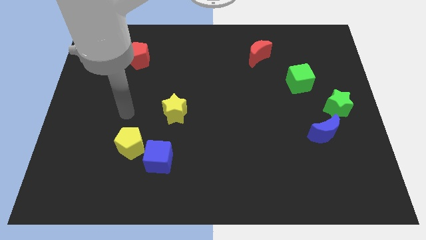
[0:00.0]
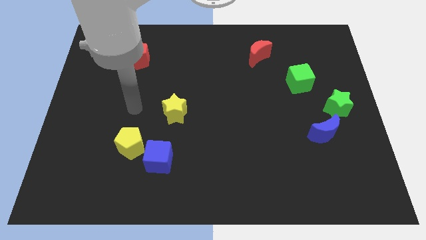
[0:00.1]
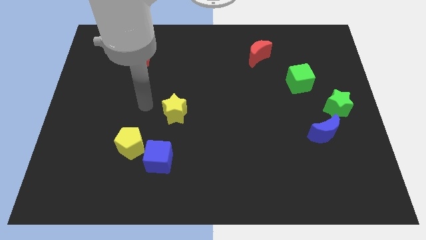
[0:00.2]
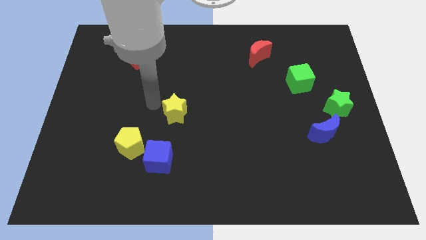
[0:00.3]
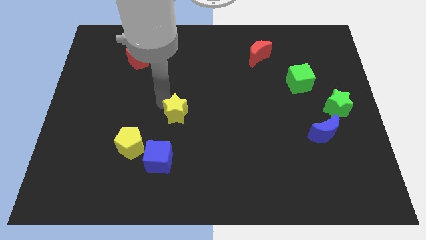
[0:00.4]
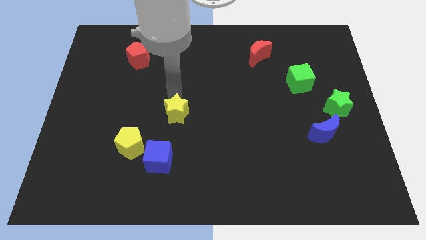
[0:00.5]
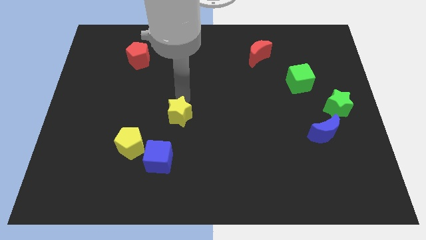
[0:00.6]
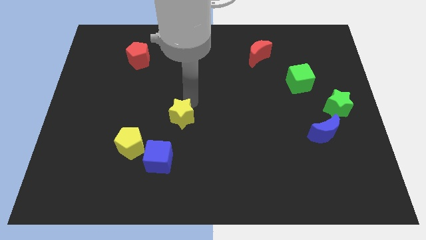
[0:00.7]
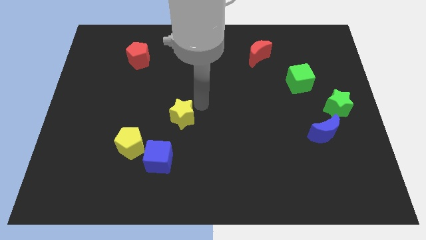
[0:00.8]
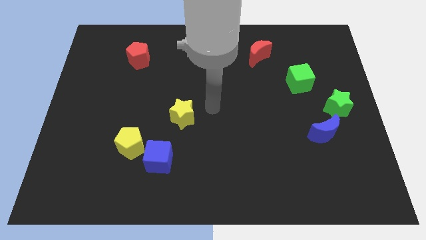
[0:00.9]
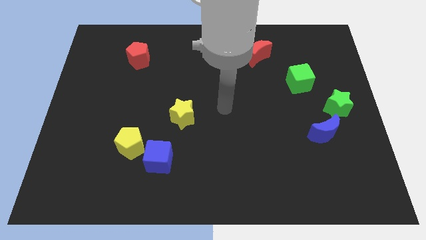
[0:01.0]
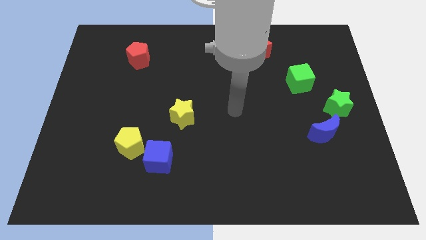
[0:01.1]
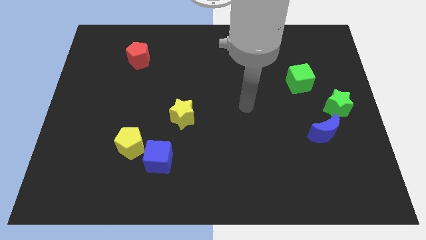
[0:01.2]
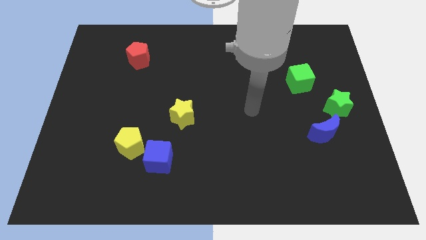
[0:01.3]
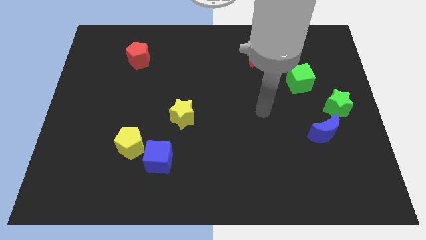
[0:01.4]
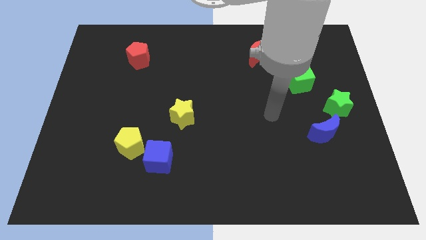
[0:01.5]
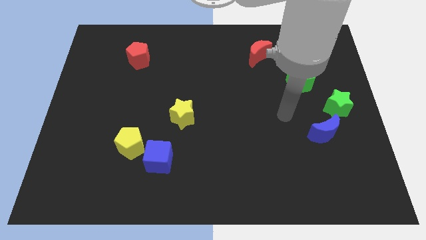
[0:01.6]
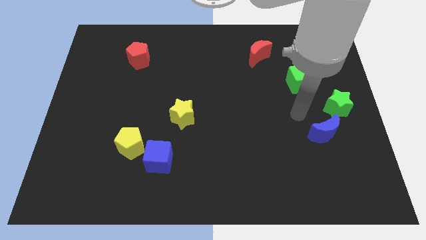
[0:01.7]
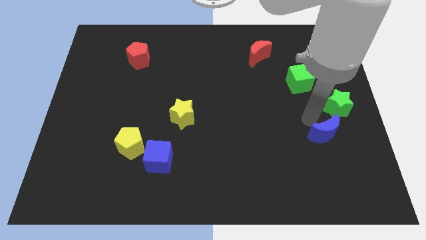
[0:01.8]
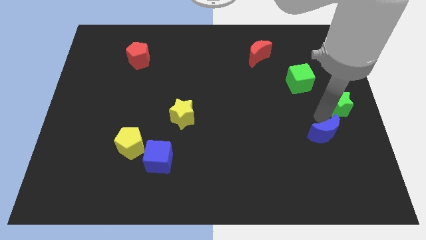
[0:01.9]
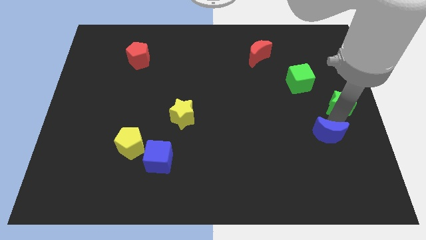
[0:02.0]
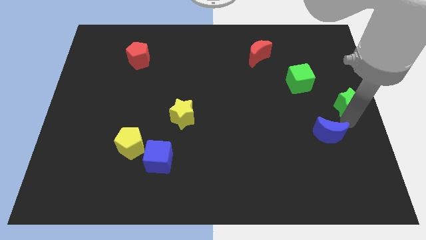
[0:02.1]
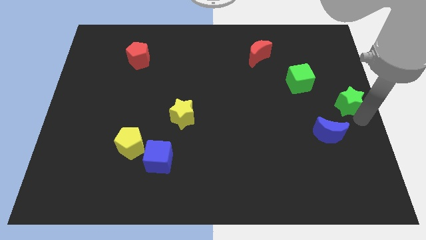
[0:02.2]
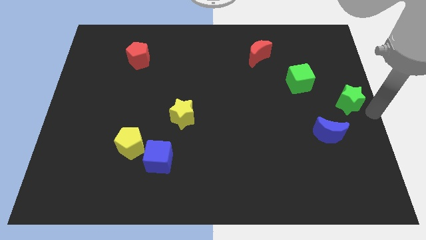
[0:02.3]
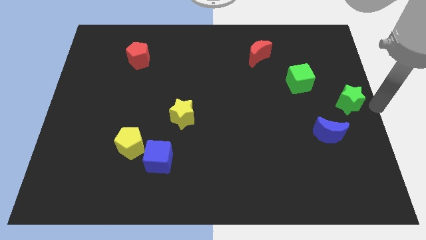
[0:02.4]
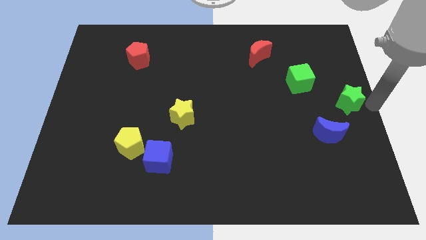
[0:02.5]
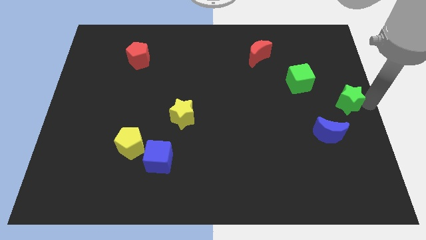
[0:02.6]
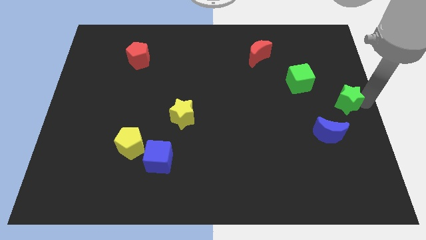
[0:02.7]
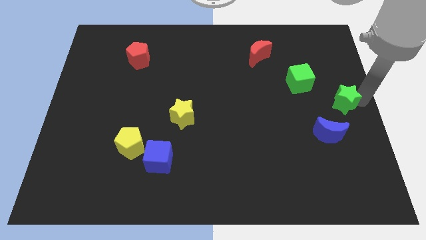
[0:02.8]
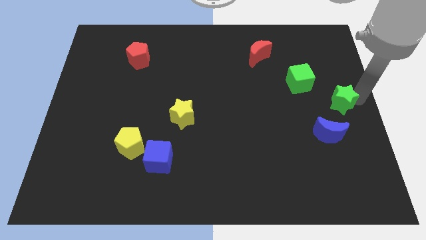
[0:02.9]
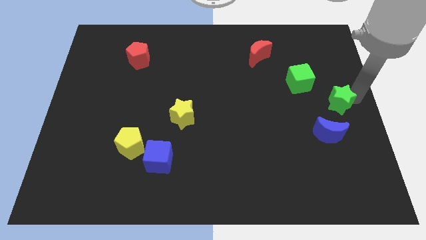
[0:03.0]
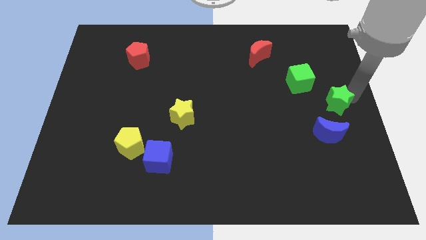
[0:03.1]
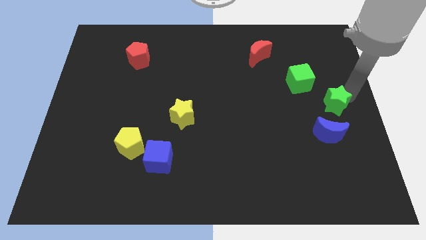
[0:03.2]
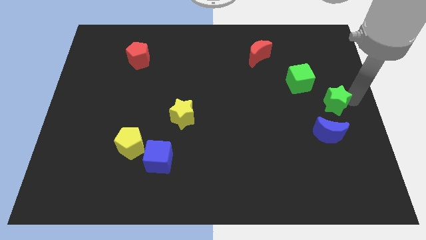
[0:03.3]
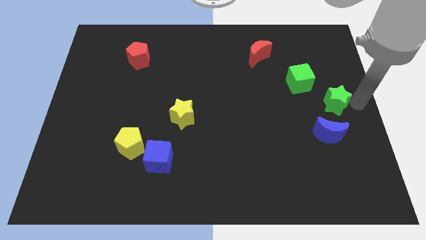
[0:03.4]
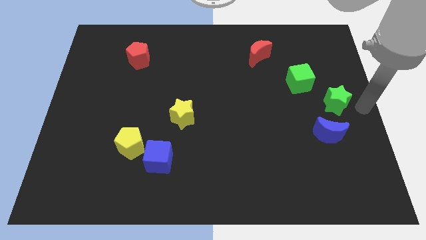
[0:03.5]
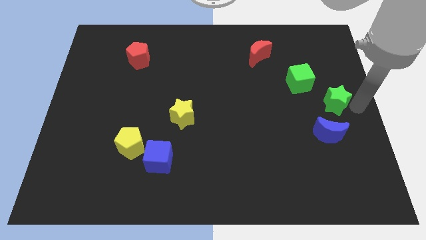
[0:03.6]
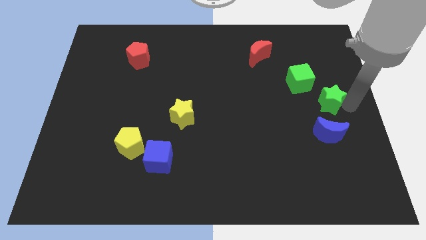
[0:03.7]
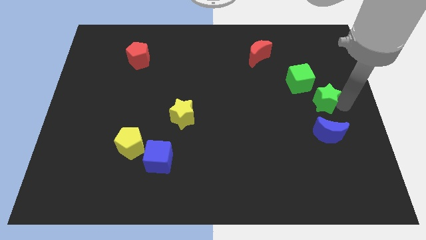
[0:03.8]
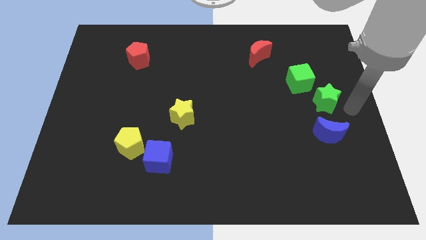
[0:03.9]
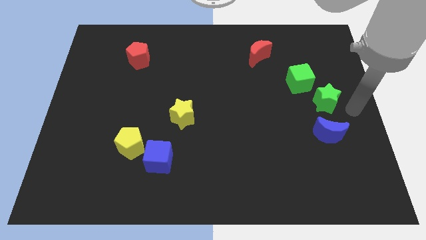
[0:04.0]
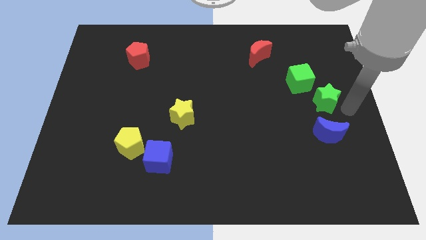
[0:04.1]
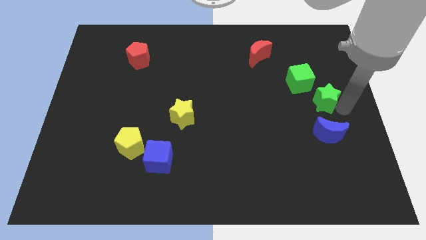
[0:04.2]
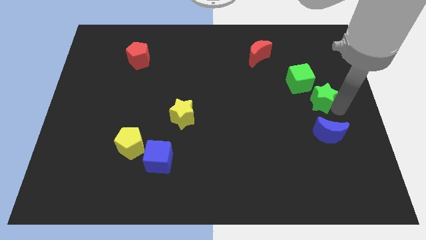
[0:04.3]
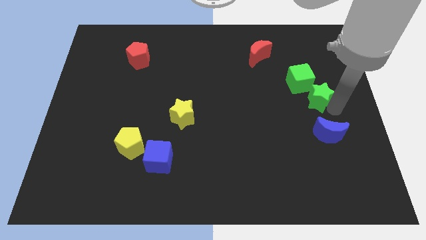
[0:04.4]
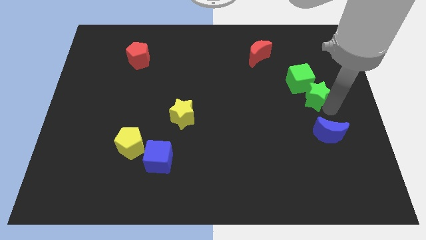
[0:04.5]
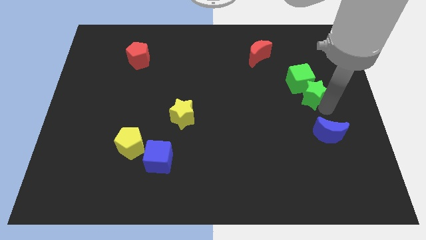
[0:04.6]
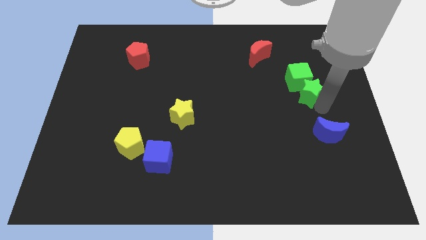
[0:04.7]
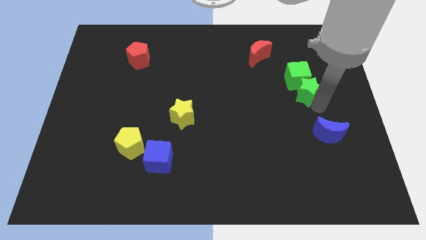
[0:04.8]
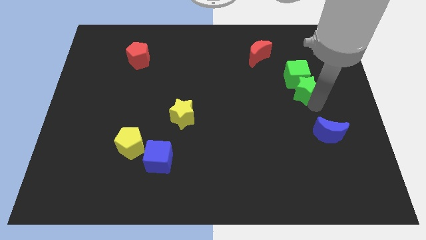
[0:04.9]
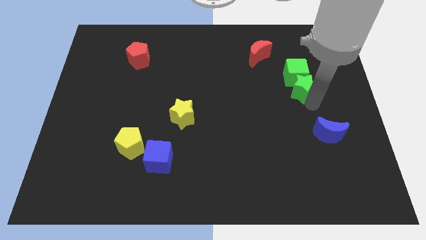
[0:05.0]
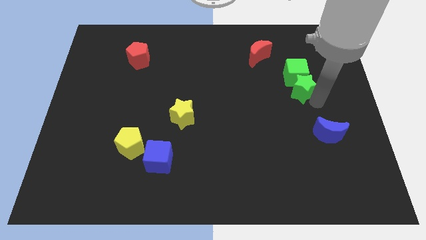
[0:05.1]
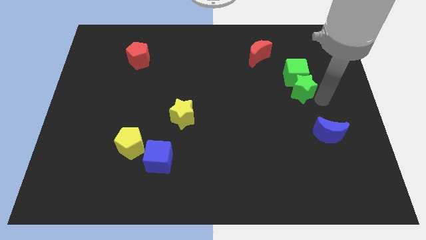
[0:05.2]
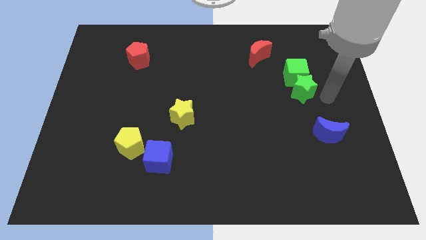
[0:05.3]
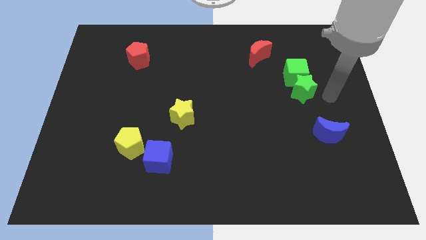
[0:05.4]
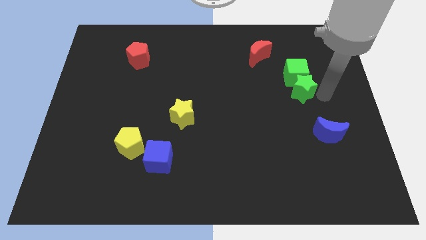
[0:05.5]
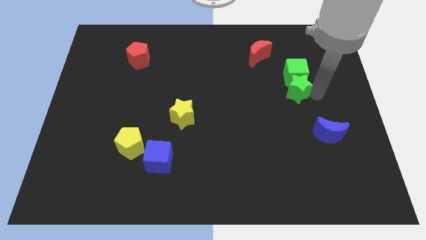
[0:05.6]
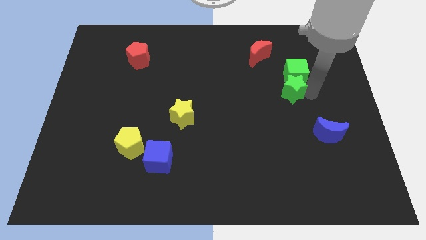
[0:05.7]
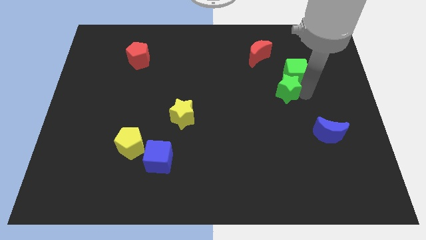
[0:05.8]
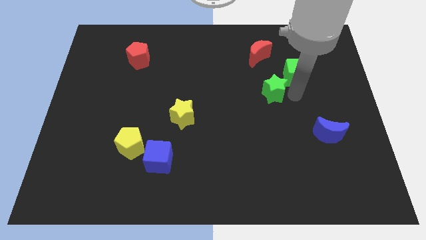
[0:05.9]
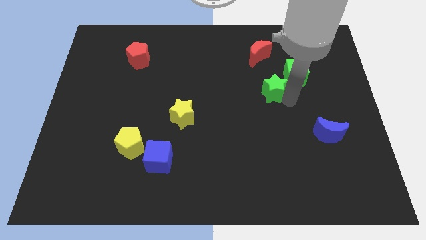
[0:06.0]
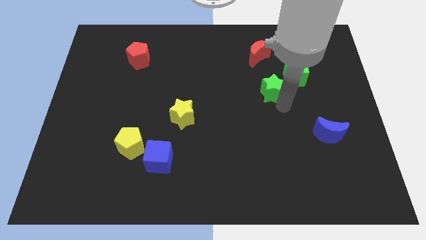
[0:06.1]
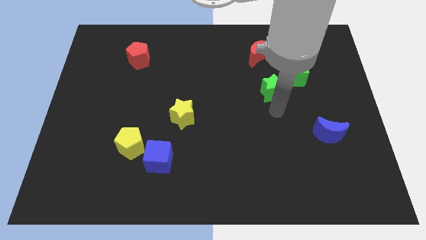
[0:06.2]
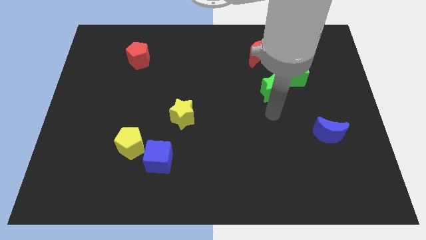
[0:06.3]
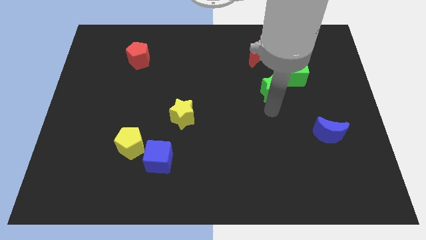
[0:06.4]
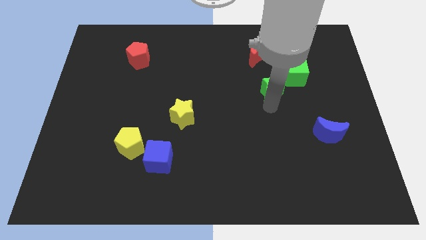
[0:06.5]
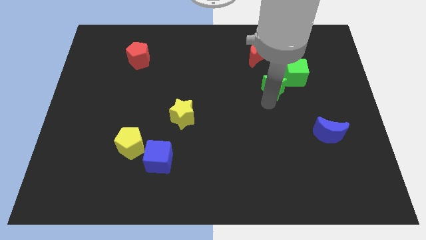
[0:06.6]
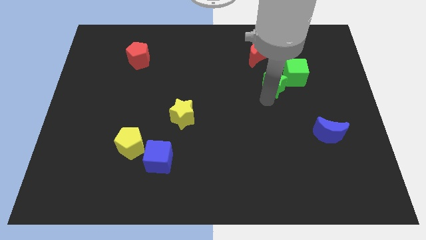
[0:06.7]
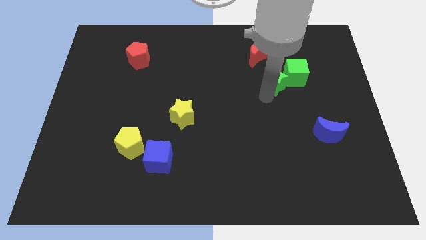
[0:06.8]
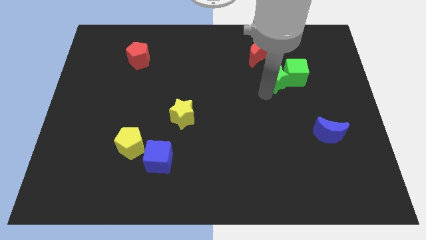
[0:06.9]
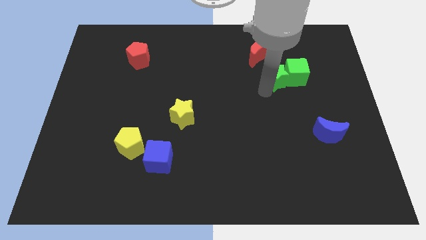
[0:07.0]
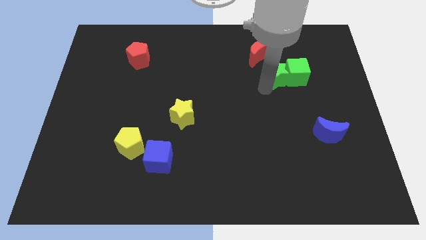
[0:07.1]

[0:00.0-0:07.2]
move the green star diagonally up and to the left of the green cube

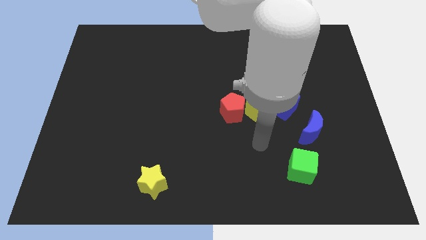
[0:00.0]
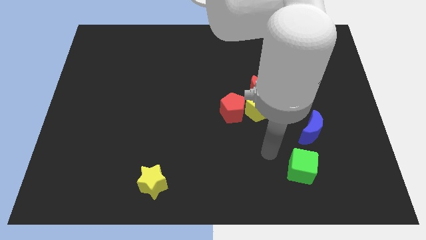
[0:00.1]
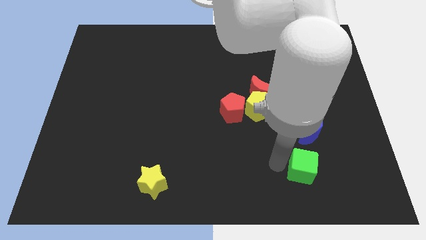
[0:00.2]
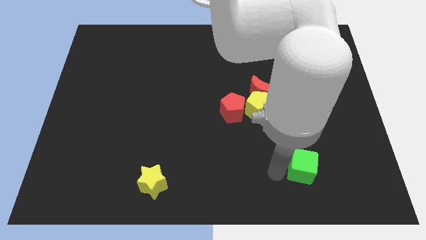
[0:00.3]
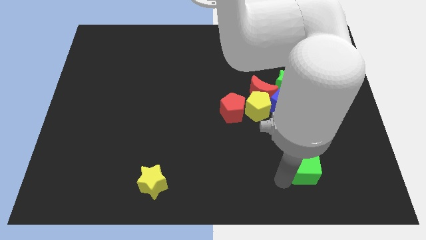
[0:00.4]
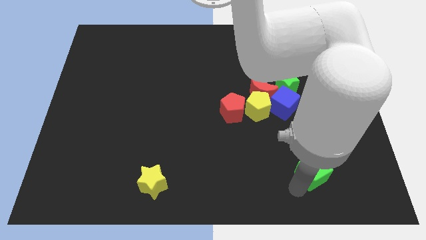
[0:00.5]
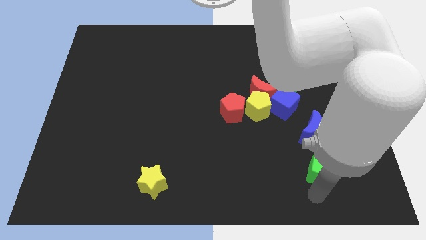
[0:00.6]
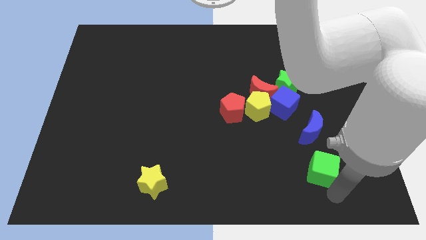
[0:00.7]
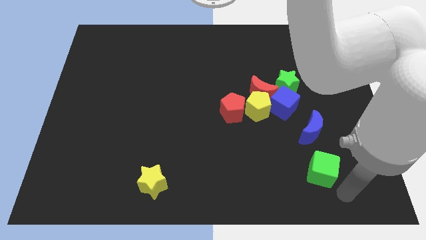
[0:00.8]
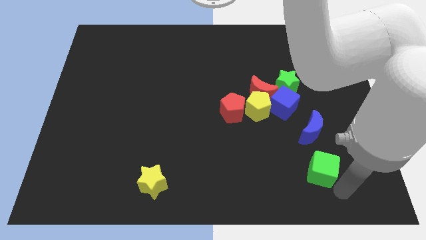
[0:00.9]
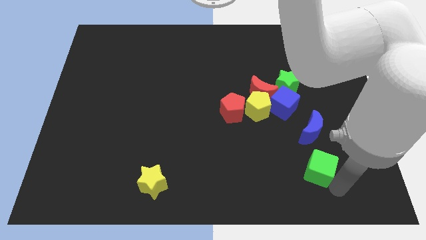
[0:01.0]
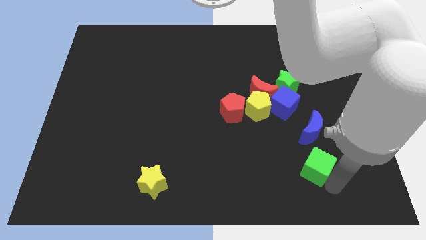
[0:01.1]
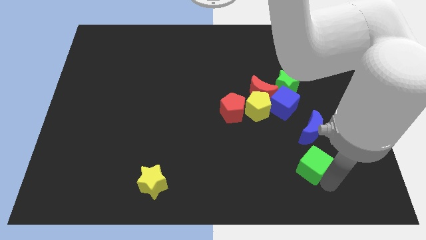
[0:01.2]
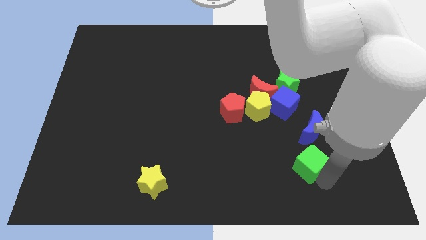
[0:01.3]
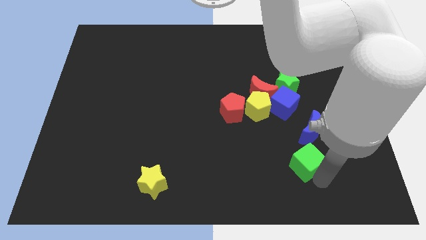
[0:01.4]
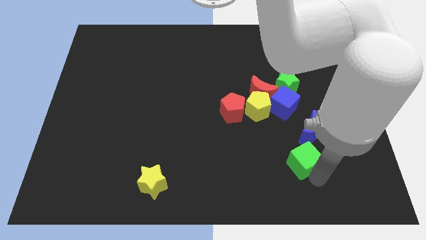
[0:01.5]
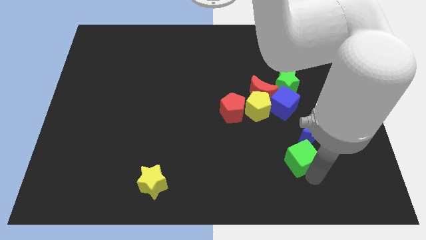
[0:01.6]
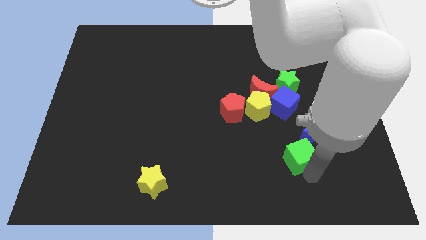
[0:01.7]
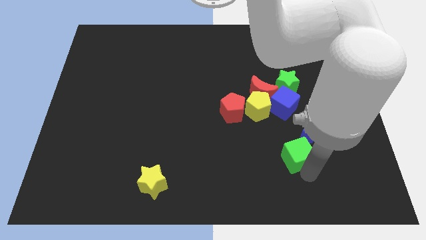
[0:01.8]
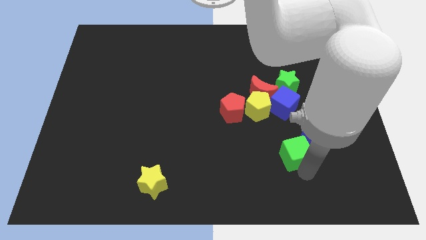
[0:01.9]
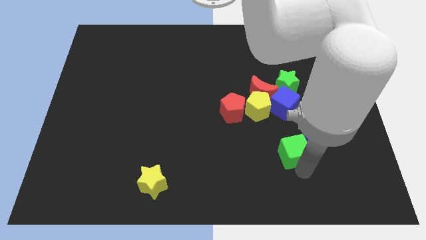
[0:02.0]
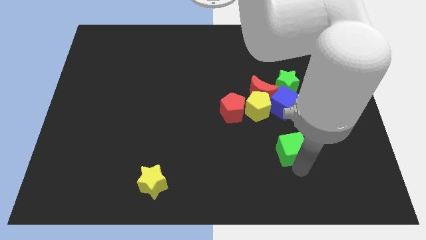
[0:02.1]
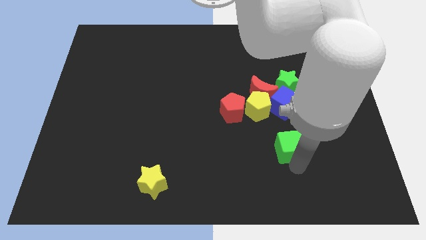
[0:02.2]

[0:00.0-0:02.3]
slide the green cube diagonally down and to the right of the yellow pentagon
